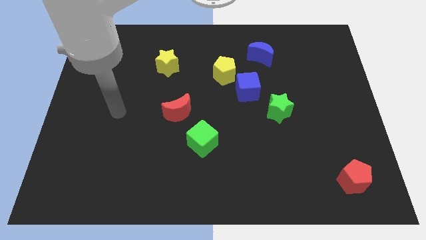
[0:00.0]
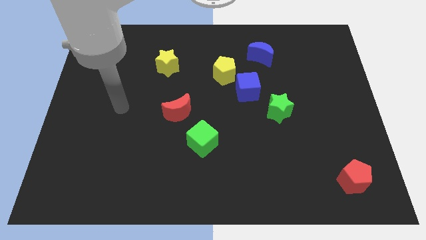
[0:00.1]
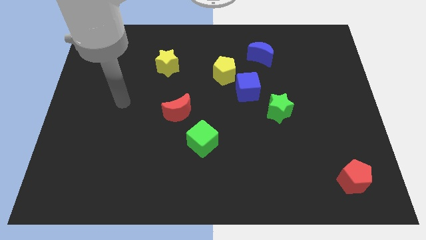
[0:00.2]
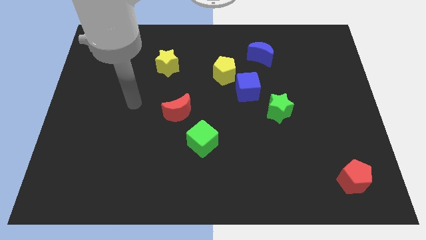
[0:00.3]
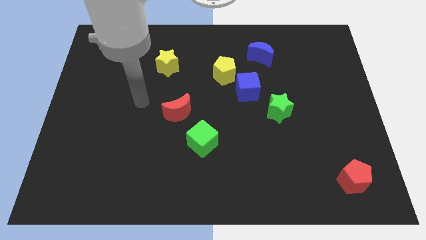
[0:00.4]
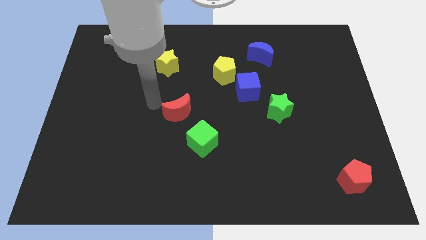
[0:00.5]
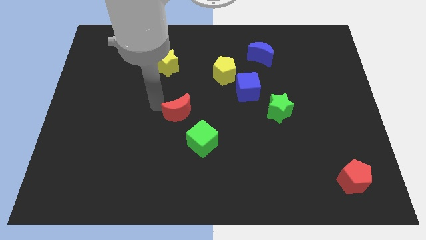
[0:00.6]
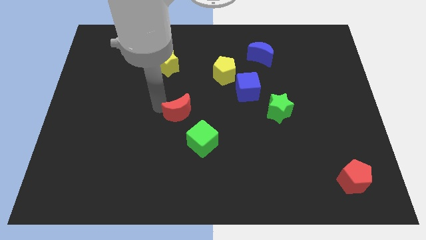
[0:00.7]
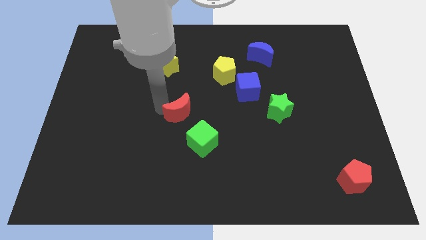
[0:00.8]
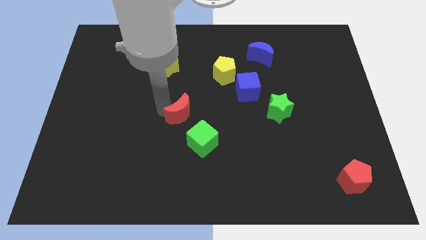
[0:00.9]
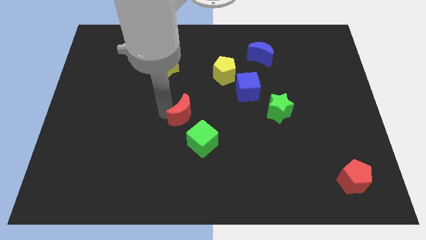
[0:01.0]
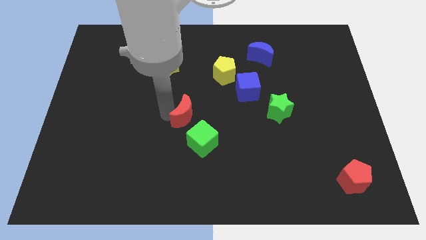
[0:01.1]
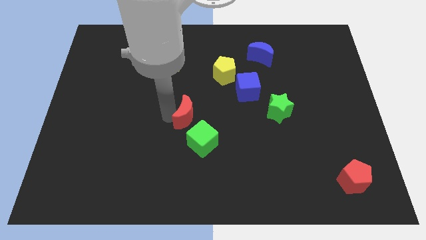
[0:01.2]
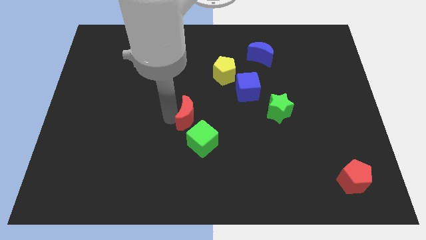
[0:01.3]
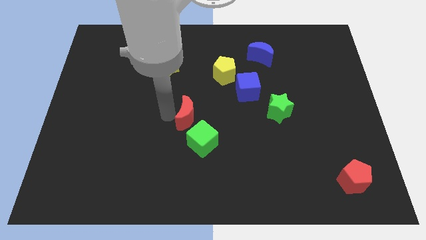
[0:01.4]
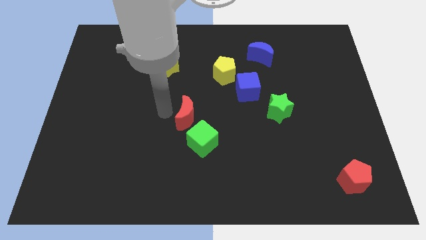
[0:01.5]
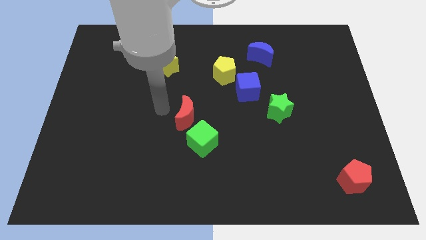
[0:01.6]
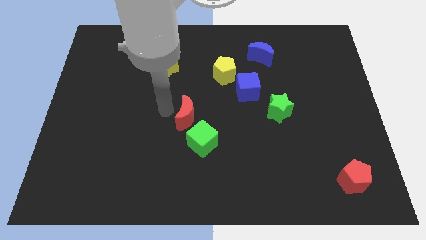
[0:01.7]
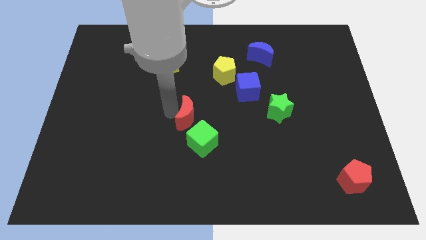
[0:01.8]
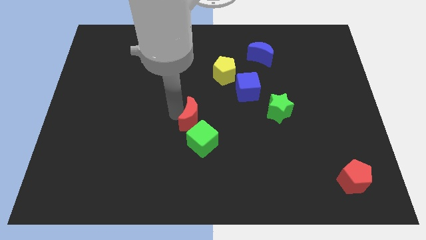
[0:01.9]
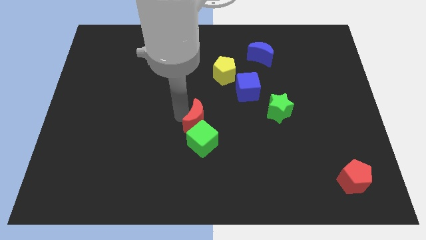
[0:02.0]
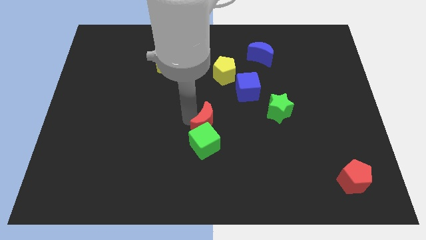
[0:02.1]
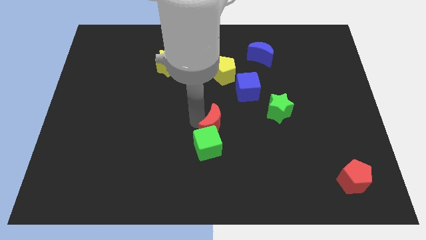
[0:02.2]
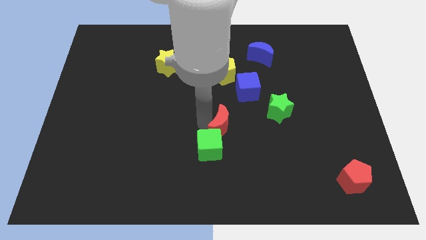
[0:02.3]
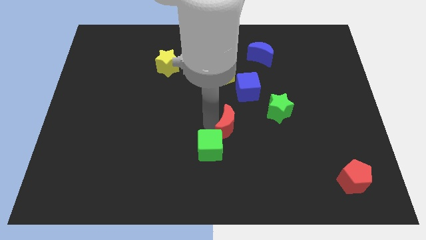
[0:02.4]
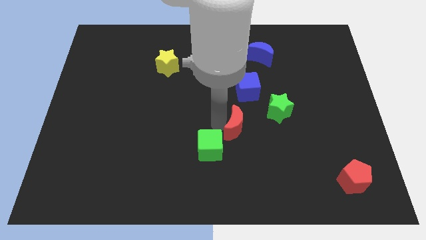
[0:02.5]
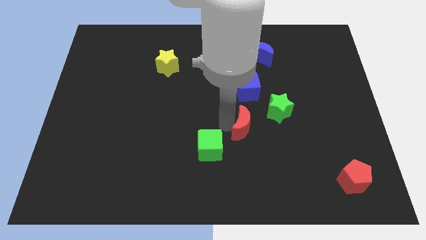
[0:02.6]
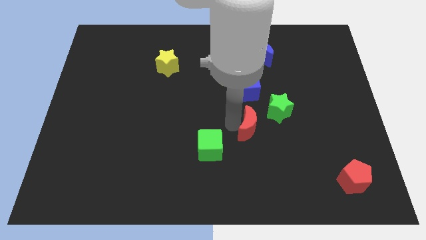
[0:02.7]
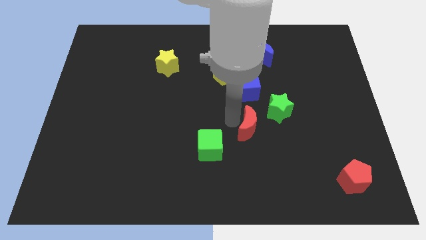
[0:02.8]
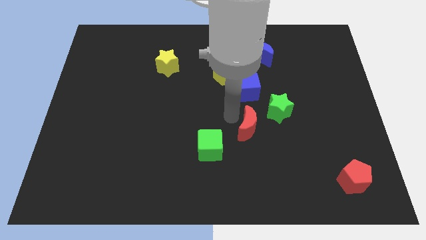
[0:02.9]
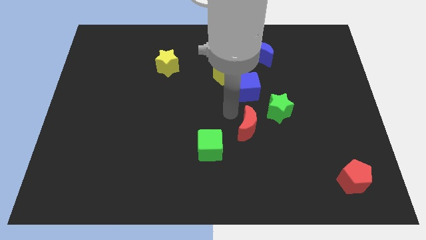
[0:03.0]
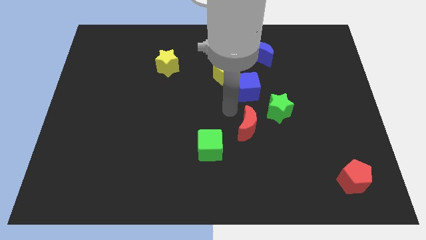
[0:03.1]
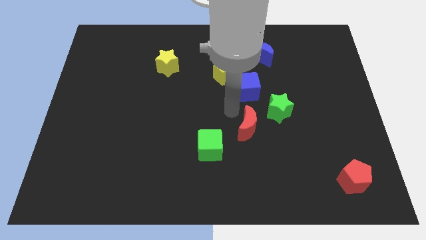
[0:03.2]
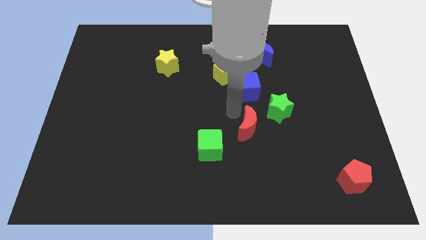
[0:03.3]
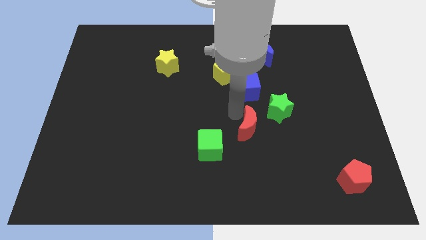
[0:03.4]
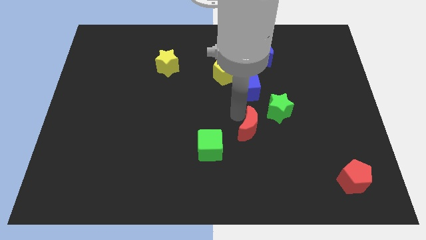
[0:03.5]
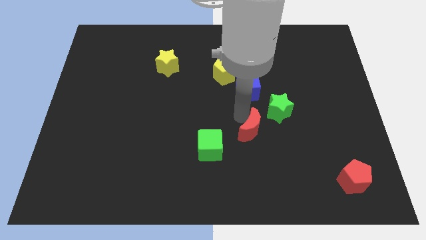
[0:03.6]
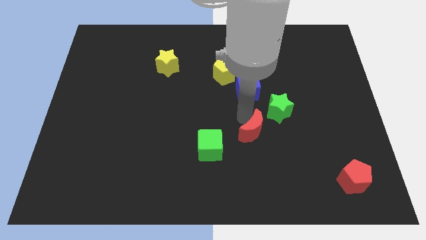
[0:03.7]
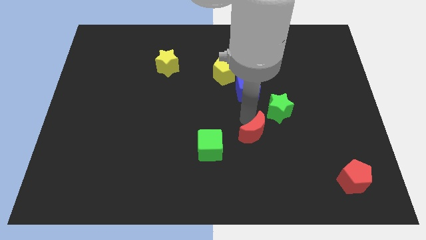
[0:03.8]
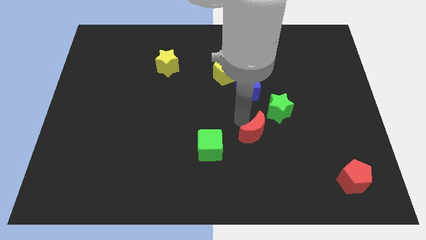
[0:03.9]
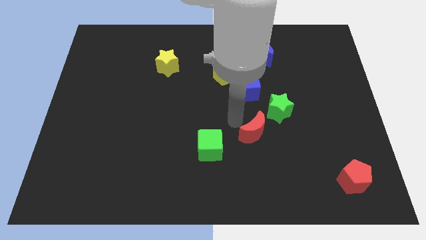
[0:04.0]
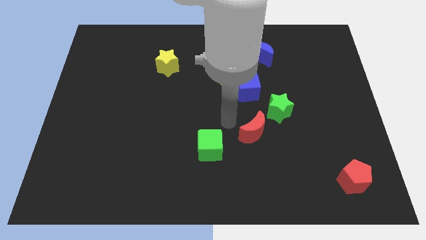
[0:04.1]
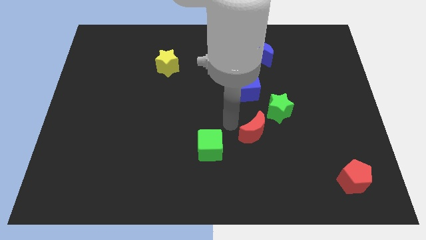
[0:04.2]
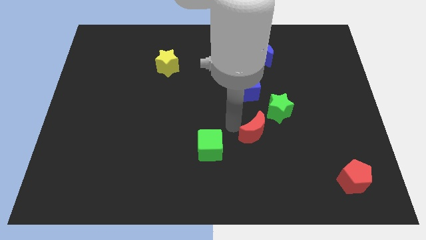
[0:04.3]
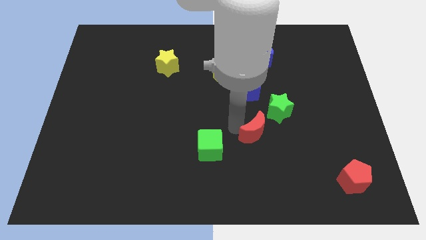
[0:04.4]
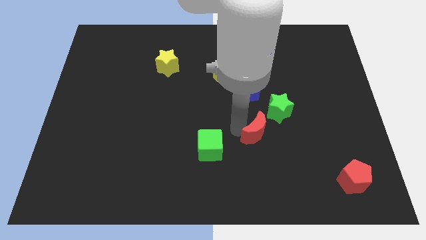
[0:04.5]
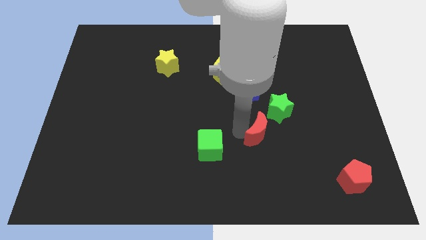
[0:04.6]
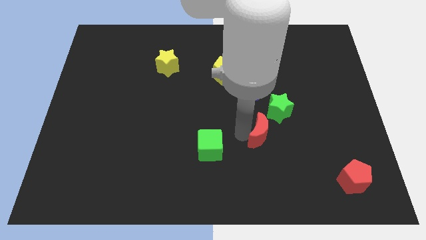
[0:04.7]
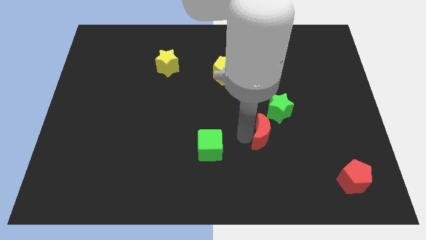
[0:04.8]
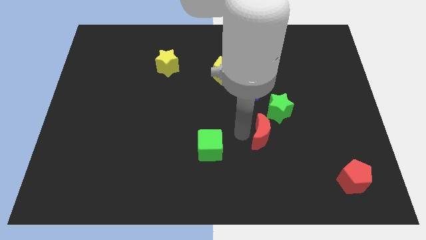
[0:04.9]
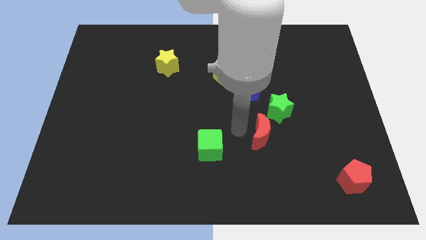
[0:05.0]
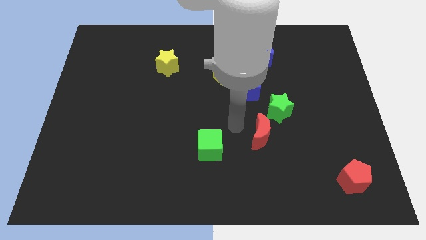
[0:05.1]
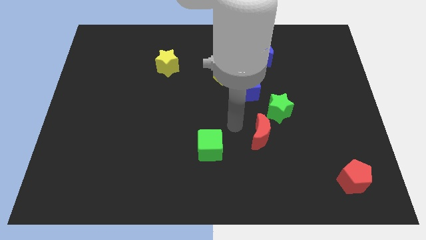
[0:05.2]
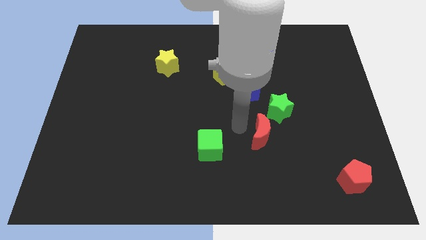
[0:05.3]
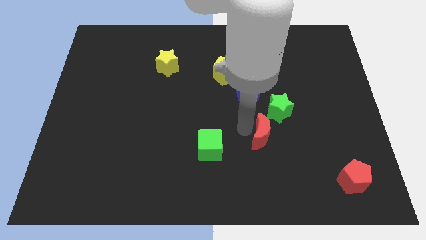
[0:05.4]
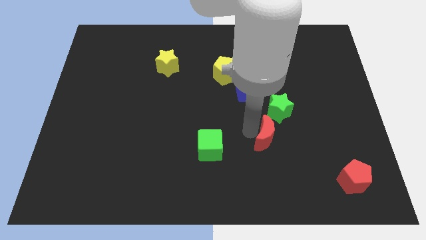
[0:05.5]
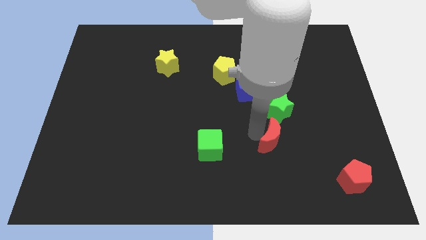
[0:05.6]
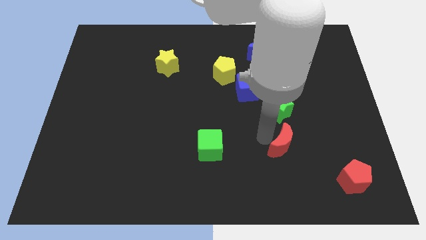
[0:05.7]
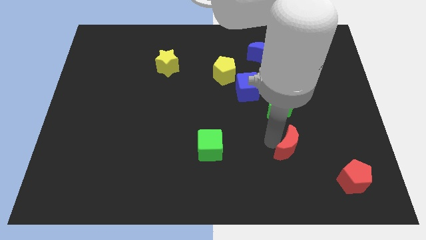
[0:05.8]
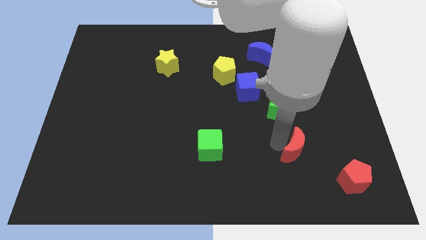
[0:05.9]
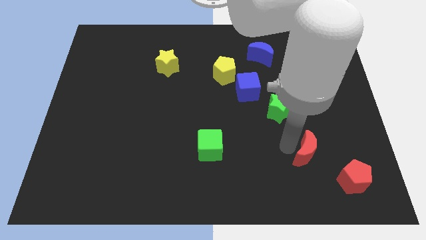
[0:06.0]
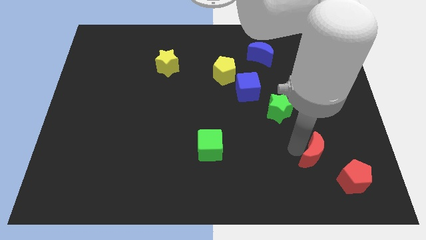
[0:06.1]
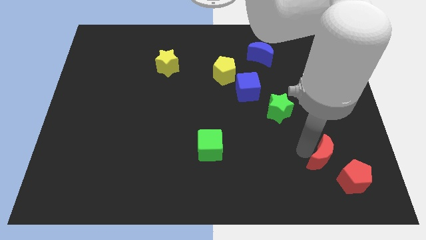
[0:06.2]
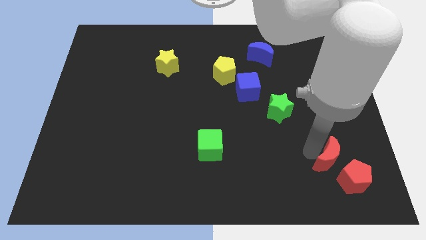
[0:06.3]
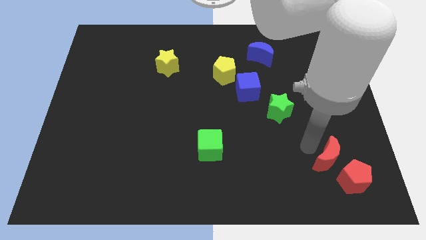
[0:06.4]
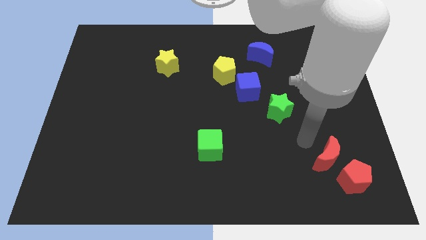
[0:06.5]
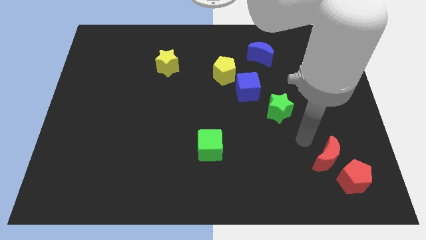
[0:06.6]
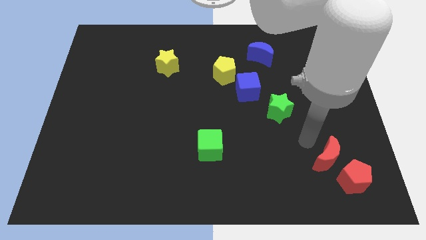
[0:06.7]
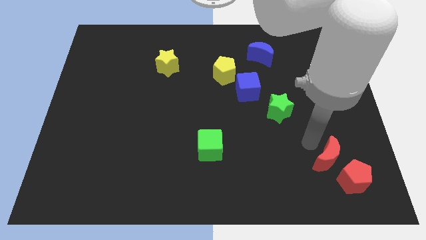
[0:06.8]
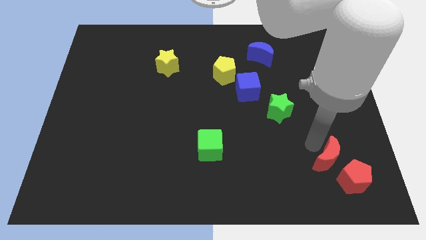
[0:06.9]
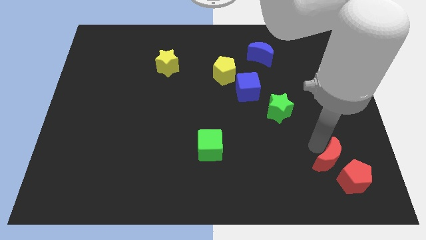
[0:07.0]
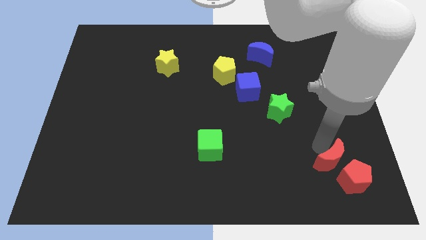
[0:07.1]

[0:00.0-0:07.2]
push the red moon towards the red pentagon
